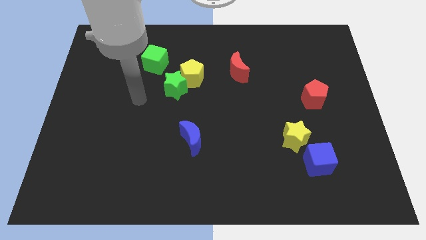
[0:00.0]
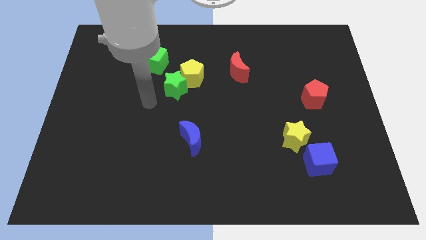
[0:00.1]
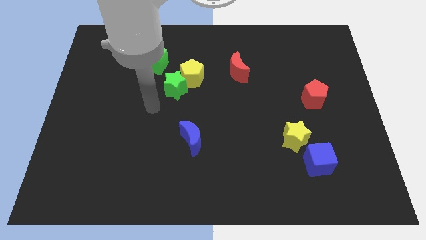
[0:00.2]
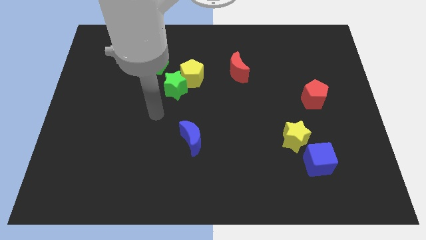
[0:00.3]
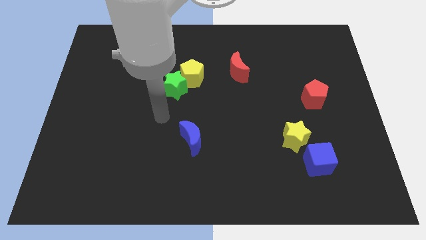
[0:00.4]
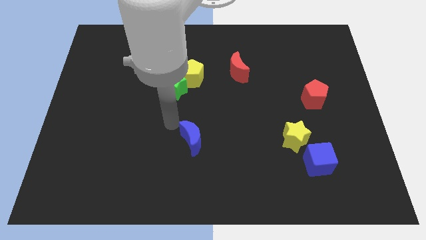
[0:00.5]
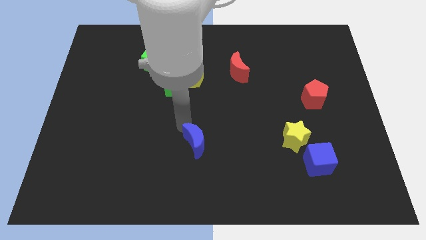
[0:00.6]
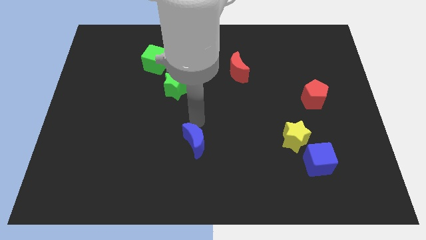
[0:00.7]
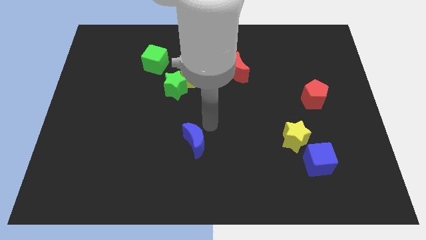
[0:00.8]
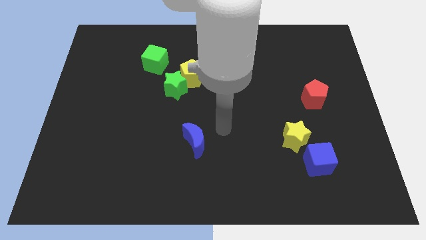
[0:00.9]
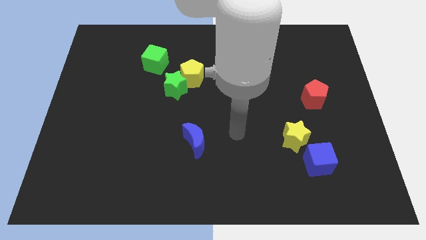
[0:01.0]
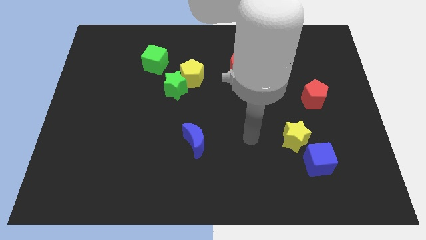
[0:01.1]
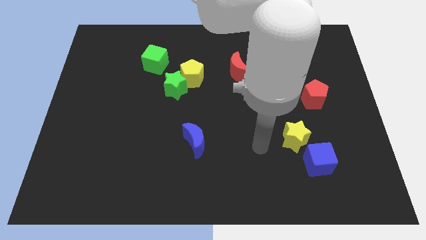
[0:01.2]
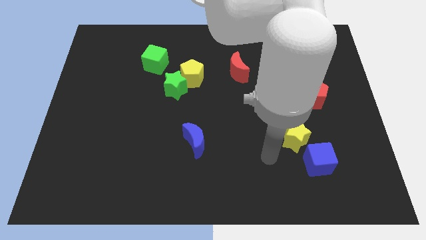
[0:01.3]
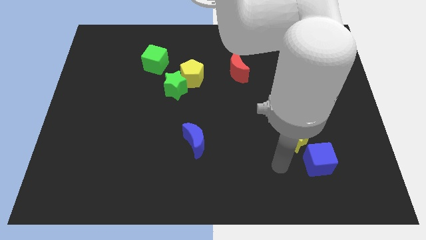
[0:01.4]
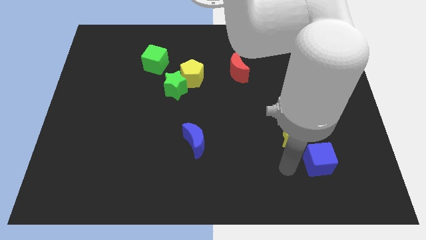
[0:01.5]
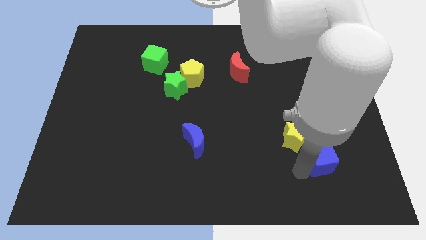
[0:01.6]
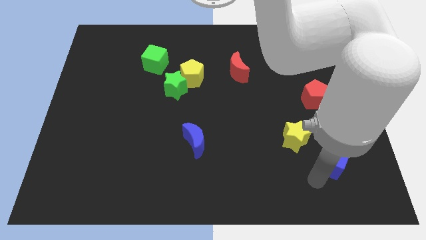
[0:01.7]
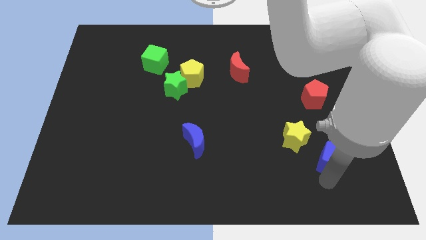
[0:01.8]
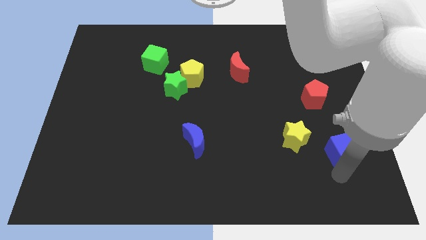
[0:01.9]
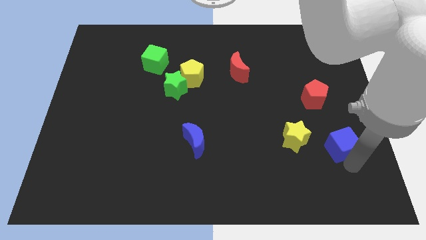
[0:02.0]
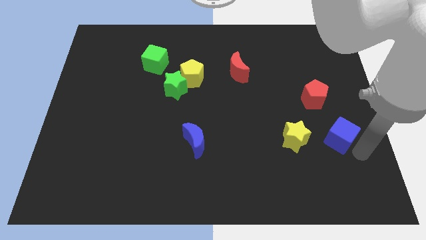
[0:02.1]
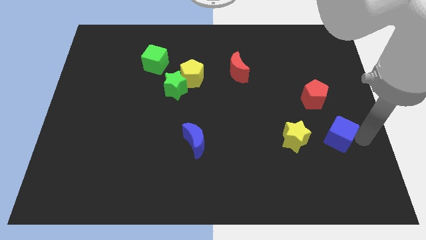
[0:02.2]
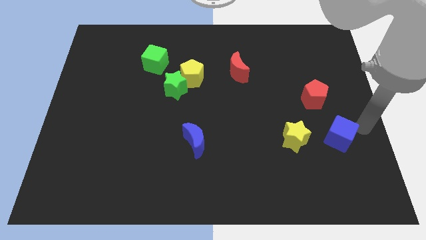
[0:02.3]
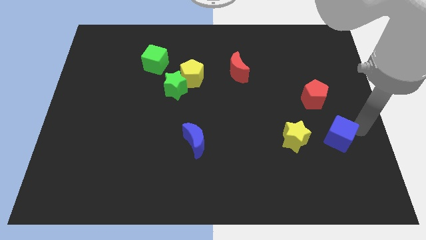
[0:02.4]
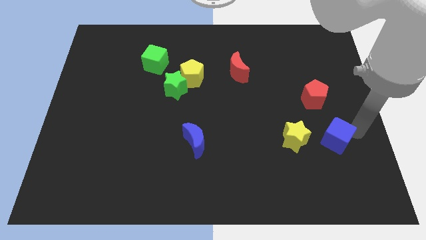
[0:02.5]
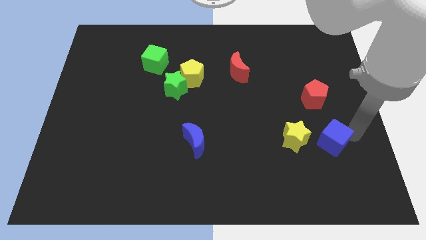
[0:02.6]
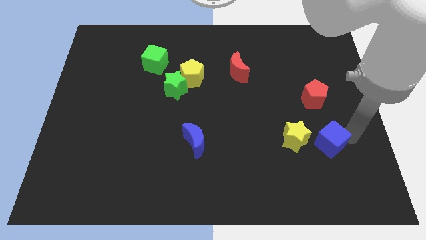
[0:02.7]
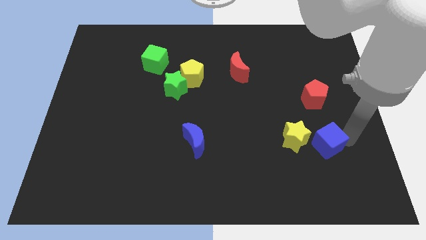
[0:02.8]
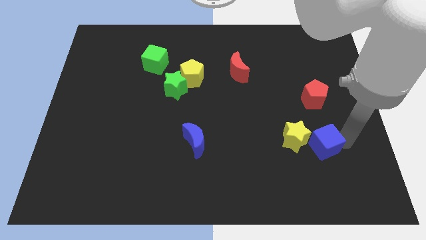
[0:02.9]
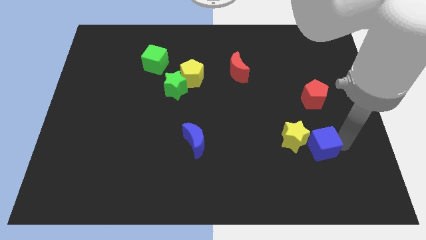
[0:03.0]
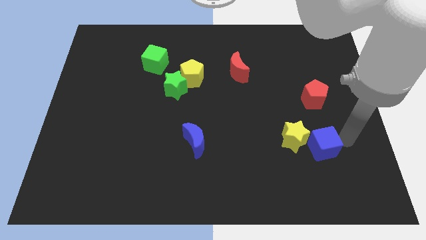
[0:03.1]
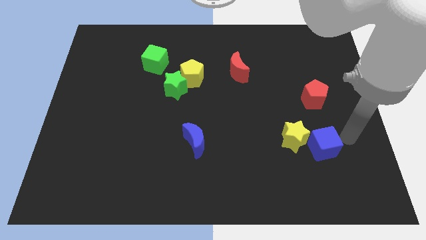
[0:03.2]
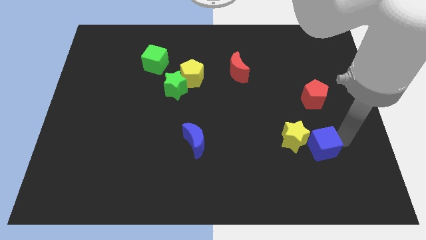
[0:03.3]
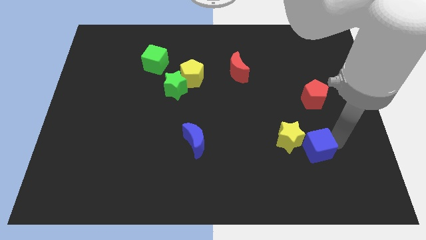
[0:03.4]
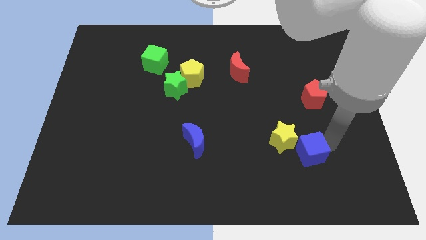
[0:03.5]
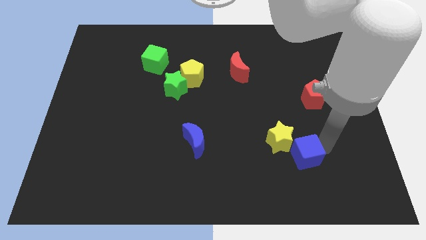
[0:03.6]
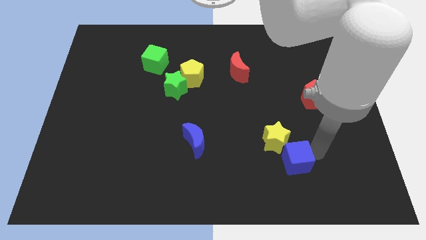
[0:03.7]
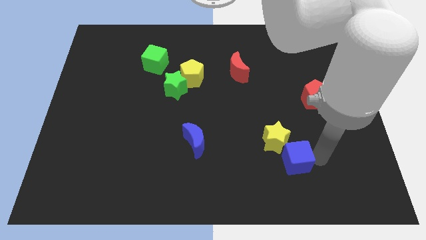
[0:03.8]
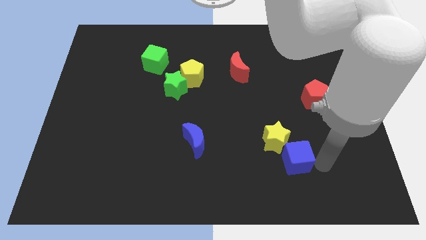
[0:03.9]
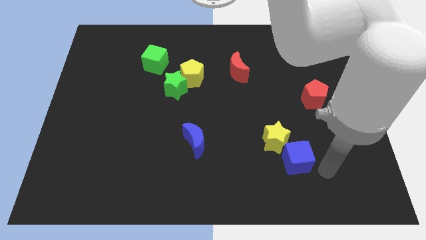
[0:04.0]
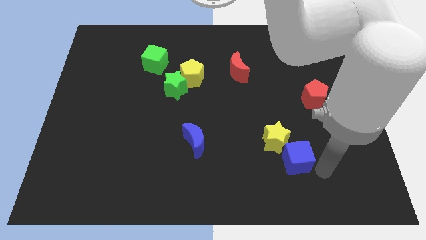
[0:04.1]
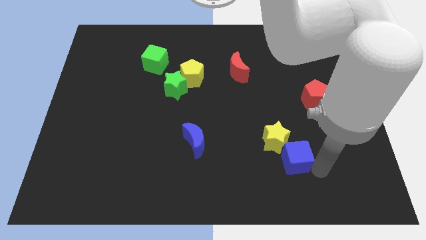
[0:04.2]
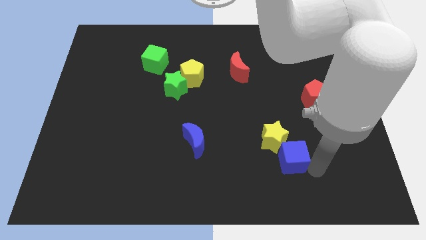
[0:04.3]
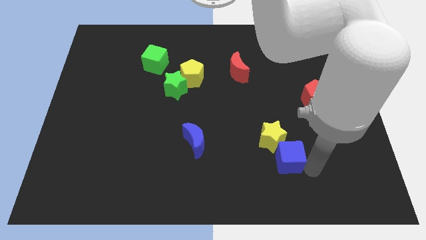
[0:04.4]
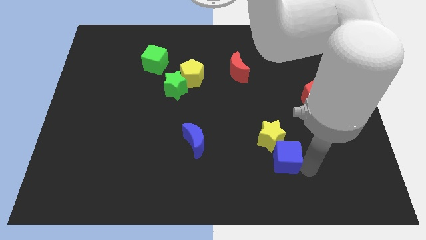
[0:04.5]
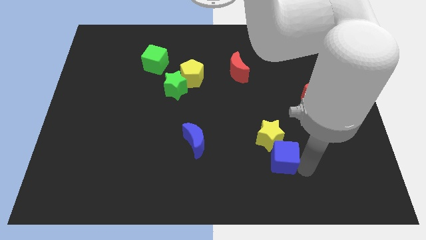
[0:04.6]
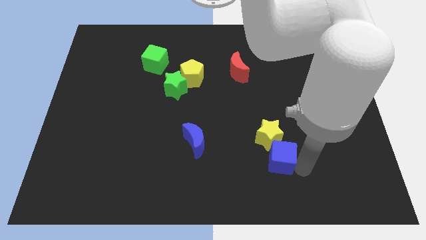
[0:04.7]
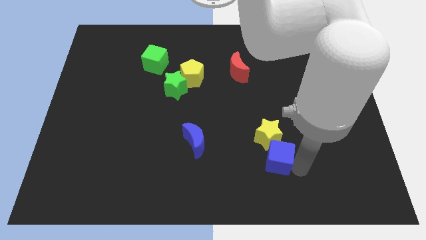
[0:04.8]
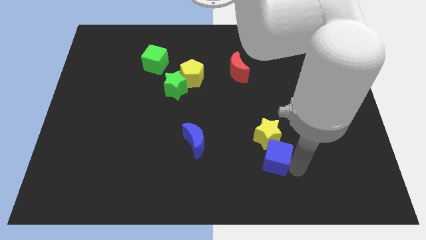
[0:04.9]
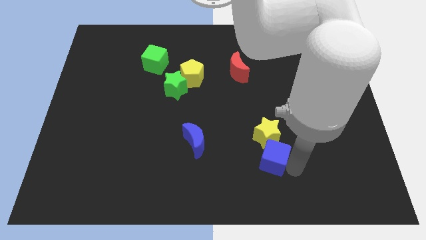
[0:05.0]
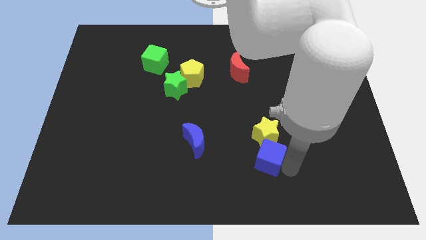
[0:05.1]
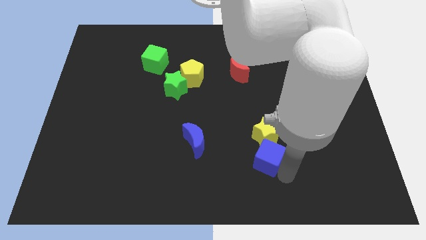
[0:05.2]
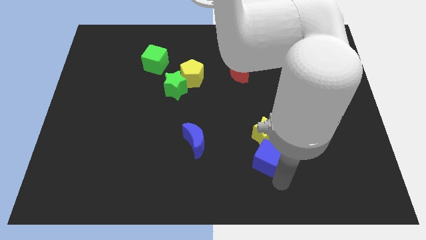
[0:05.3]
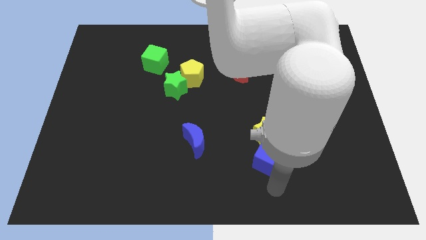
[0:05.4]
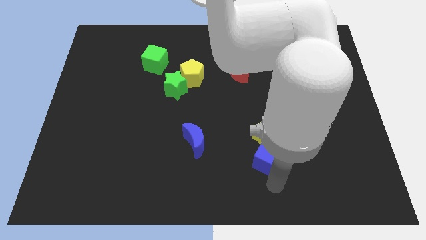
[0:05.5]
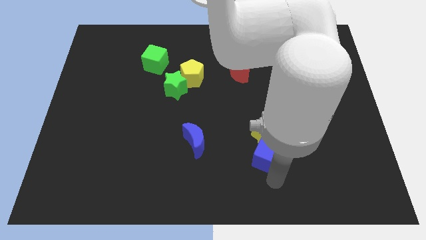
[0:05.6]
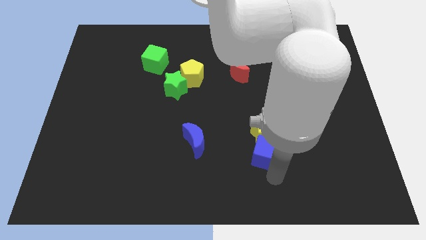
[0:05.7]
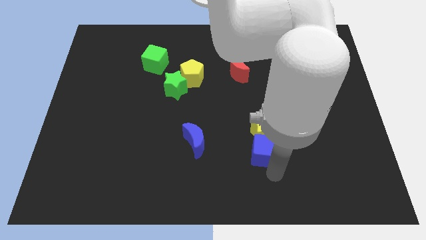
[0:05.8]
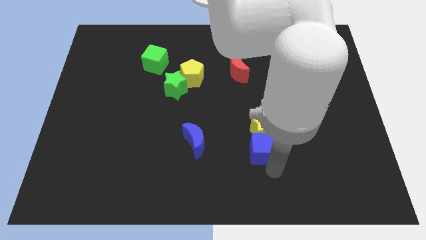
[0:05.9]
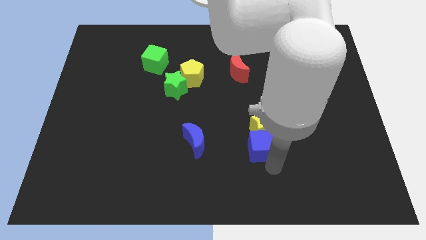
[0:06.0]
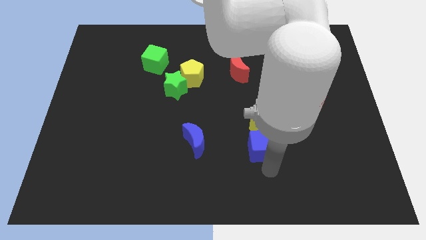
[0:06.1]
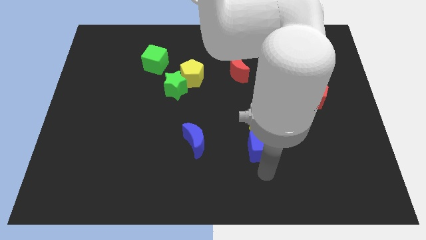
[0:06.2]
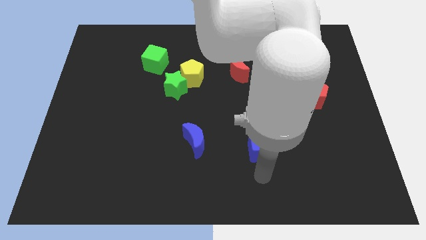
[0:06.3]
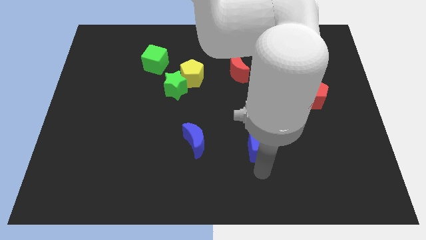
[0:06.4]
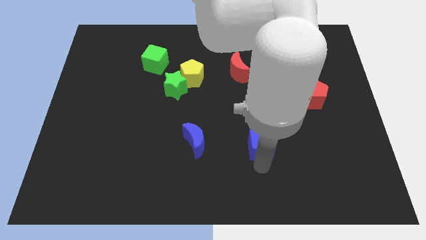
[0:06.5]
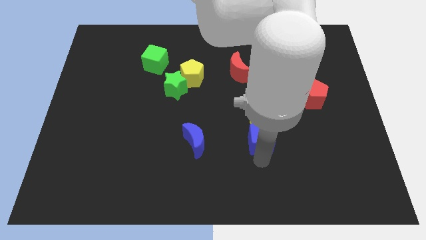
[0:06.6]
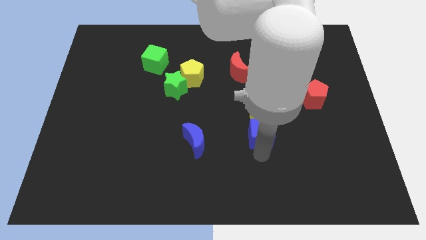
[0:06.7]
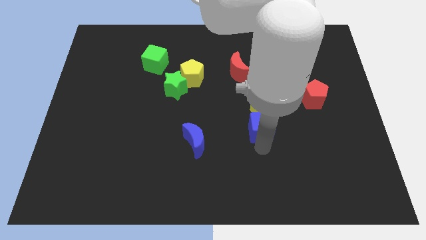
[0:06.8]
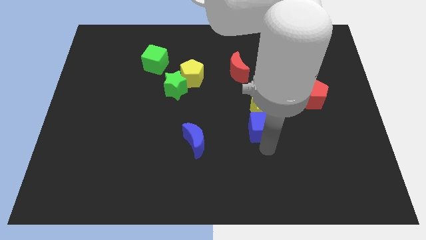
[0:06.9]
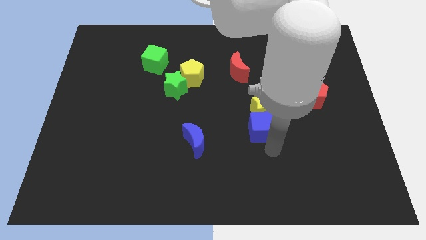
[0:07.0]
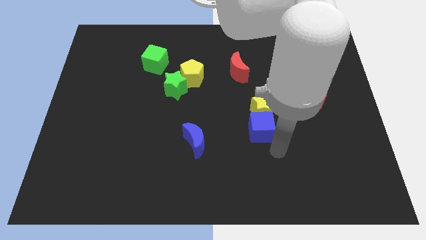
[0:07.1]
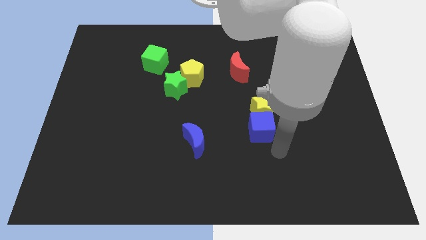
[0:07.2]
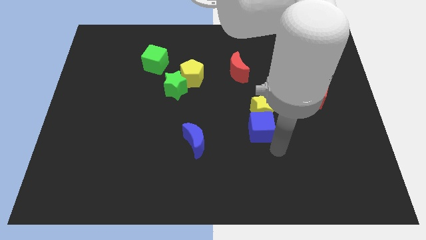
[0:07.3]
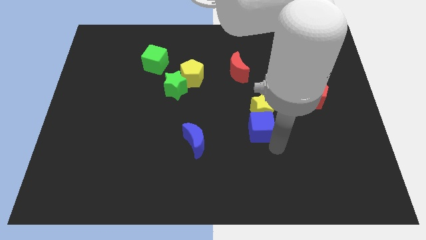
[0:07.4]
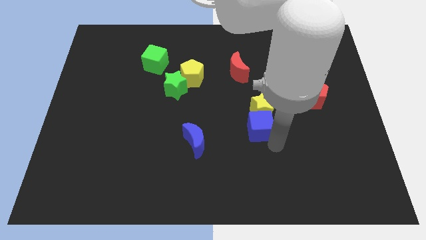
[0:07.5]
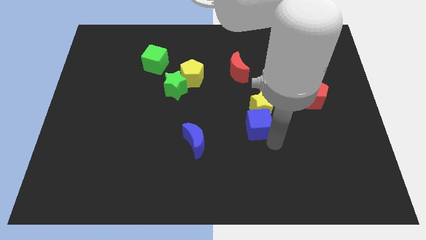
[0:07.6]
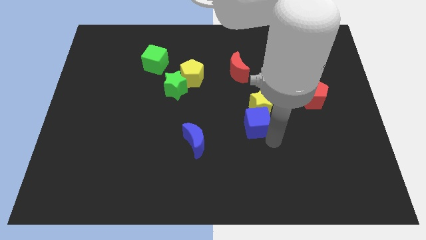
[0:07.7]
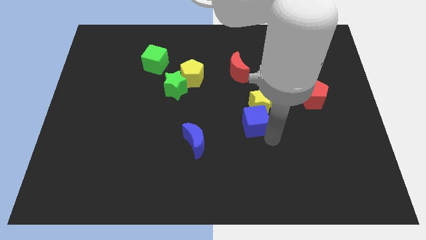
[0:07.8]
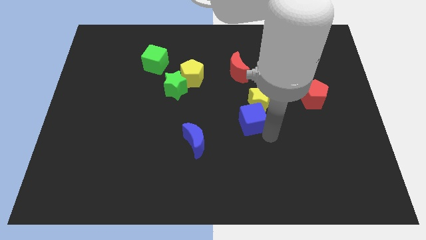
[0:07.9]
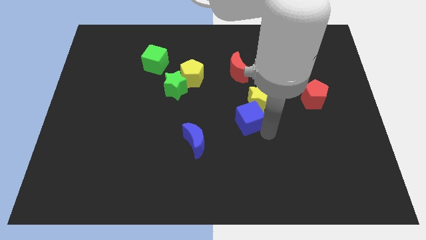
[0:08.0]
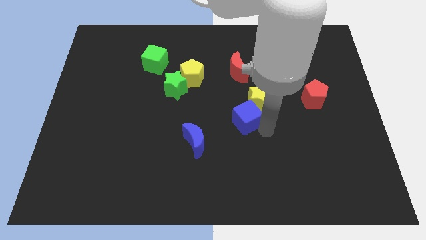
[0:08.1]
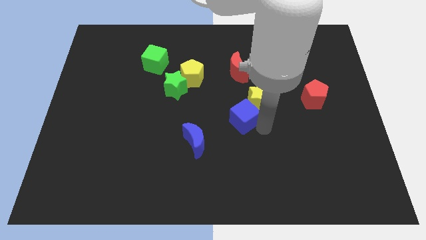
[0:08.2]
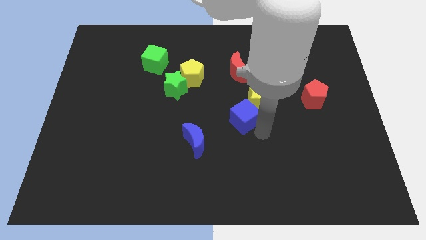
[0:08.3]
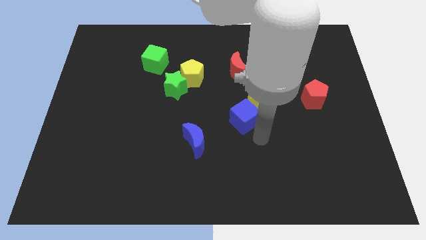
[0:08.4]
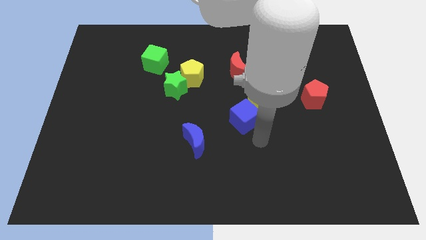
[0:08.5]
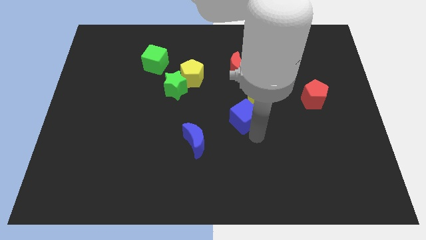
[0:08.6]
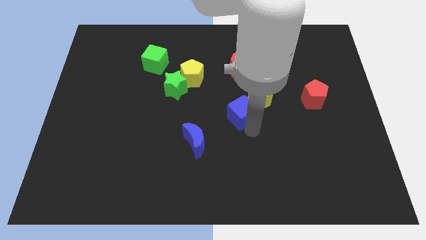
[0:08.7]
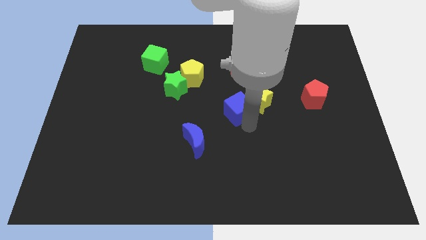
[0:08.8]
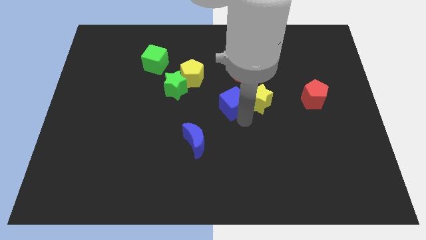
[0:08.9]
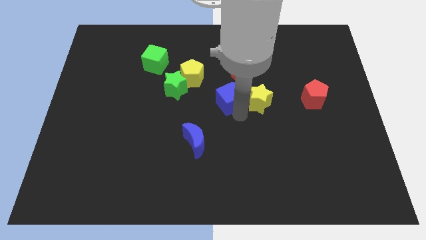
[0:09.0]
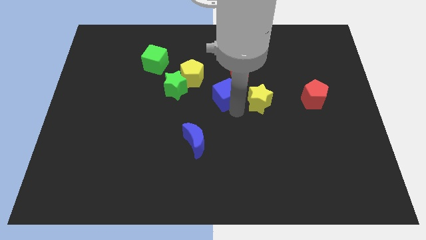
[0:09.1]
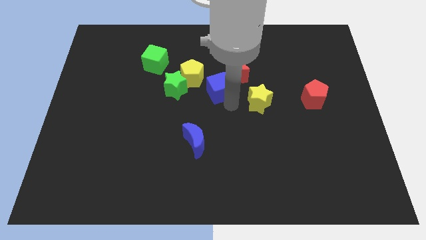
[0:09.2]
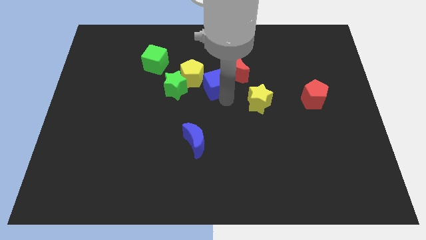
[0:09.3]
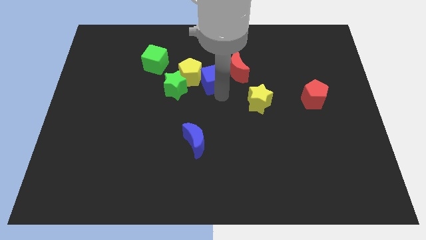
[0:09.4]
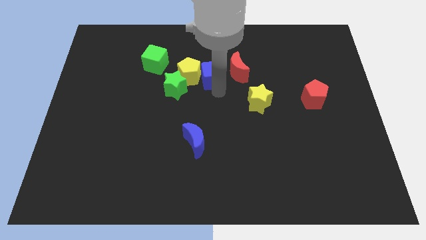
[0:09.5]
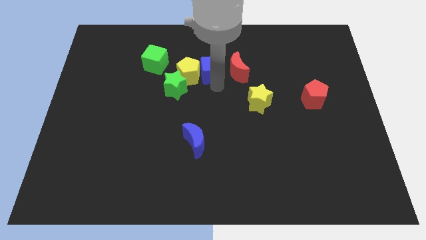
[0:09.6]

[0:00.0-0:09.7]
move the blue cube to the right side of the green cube
